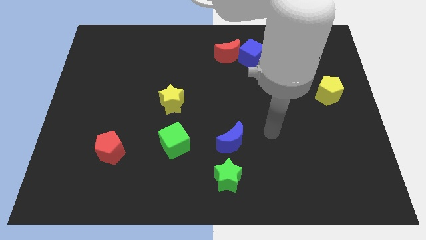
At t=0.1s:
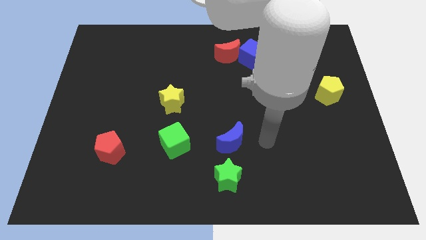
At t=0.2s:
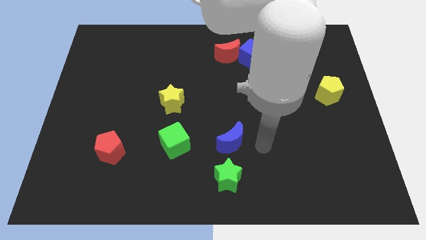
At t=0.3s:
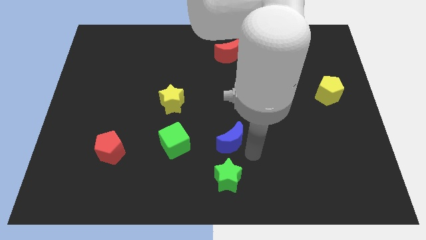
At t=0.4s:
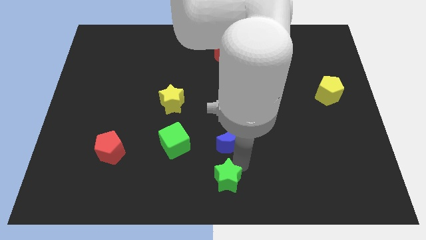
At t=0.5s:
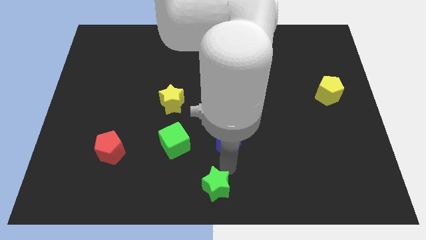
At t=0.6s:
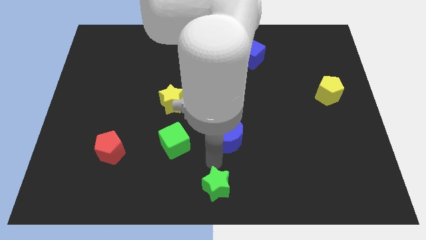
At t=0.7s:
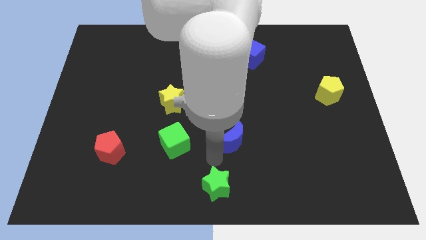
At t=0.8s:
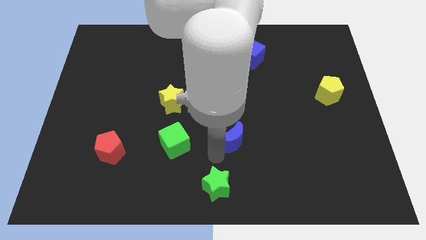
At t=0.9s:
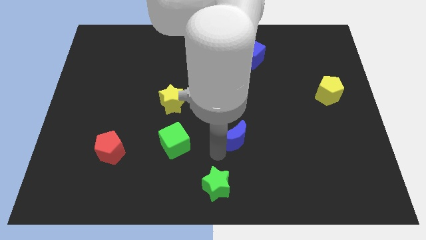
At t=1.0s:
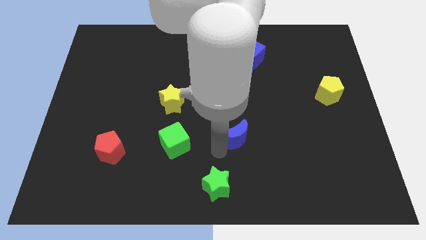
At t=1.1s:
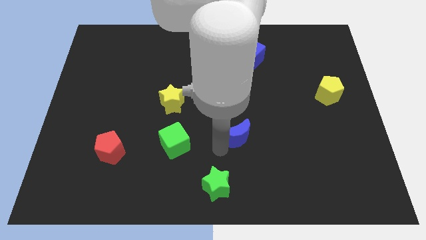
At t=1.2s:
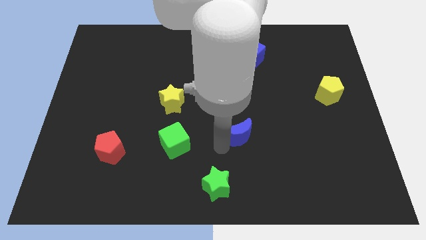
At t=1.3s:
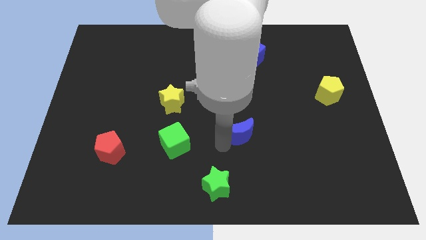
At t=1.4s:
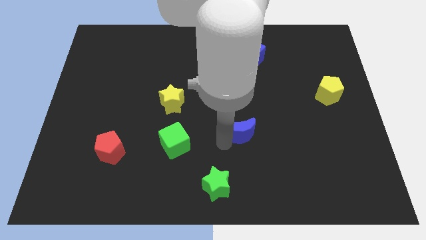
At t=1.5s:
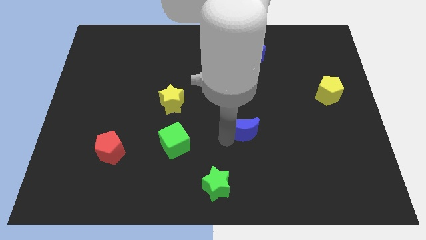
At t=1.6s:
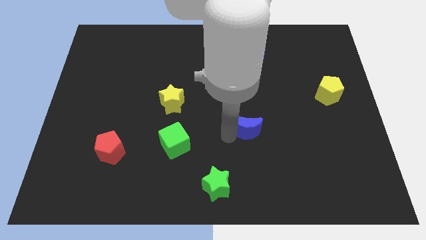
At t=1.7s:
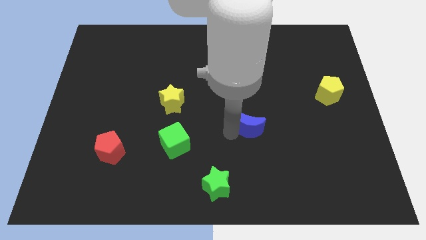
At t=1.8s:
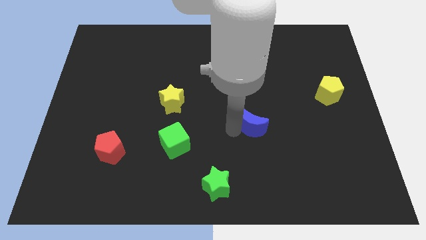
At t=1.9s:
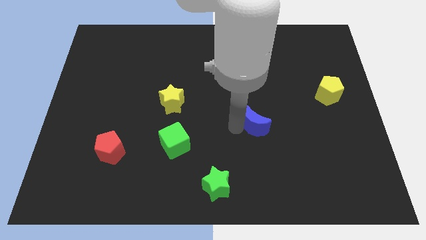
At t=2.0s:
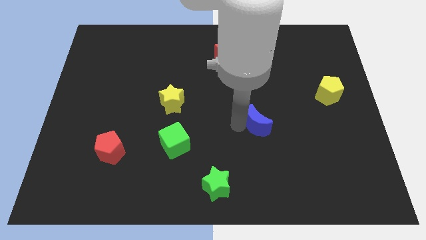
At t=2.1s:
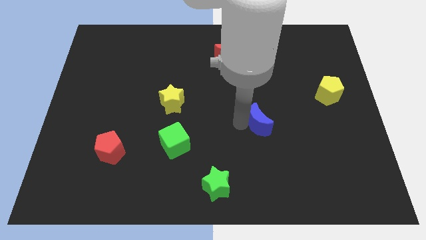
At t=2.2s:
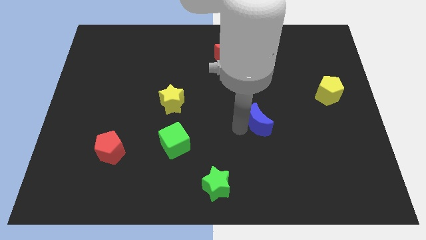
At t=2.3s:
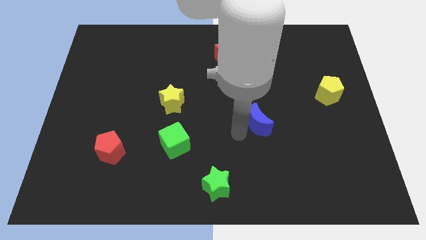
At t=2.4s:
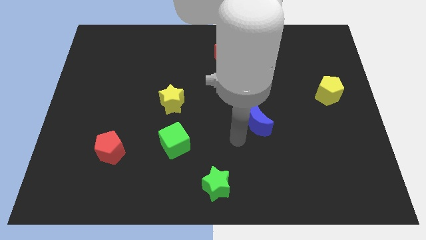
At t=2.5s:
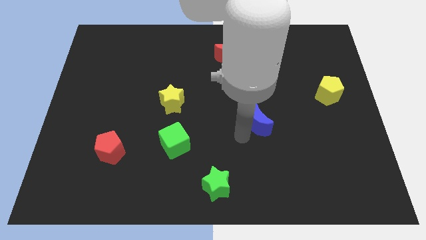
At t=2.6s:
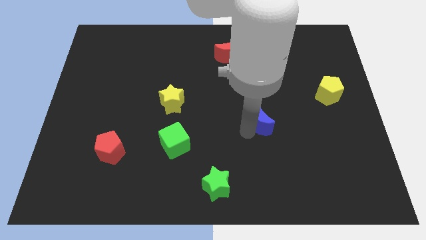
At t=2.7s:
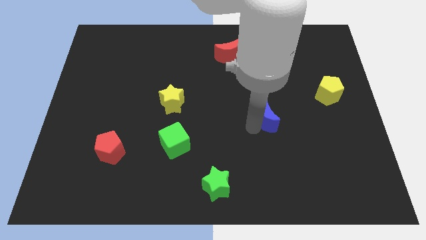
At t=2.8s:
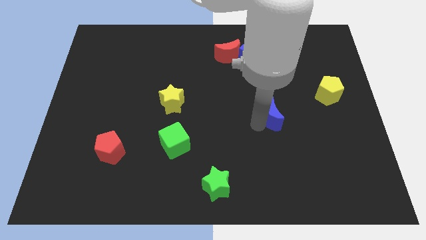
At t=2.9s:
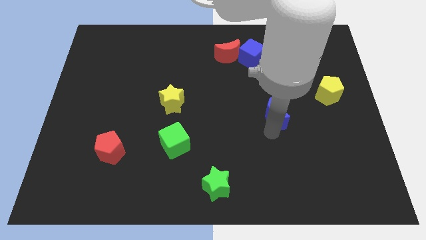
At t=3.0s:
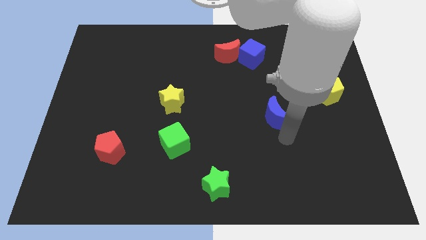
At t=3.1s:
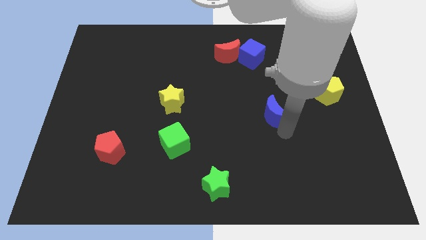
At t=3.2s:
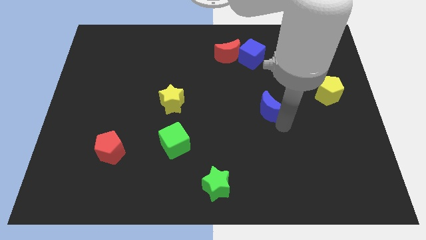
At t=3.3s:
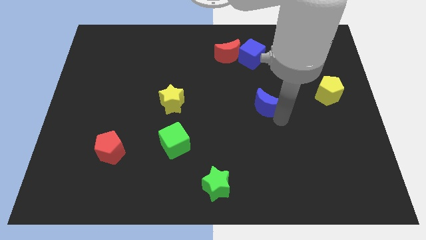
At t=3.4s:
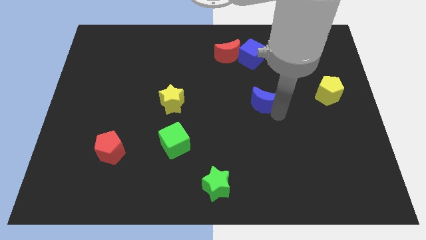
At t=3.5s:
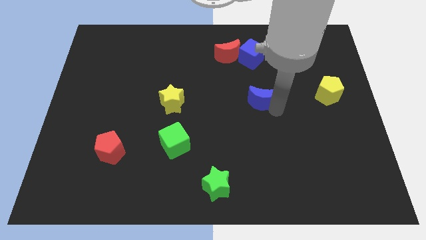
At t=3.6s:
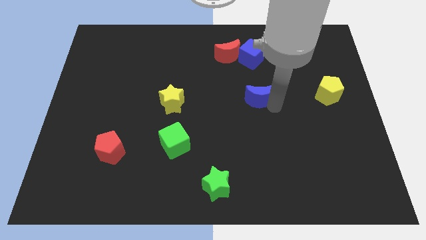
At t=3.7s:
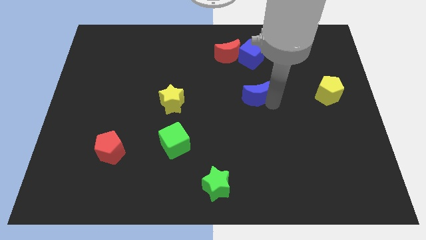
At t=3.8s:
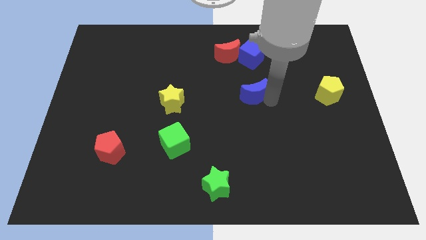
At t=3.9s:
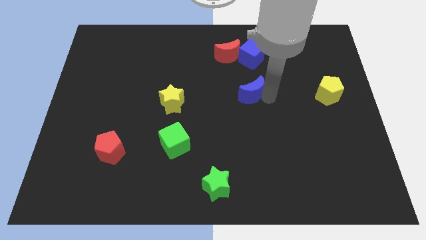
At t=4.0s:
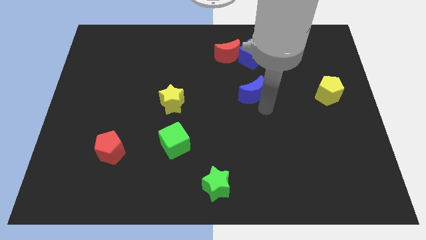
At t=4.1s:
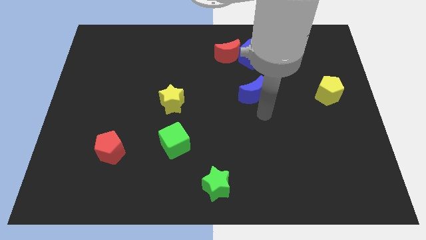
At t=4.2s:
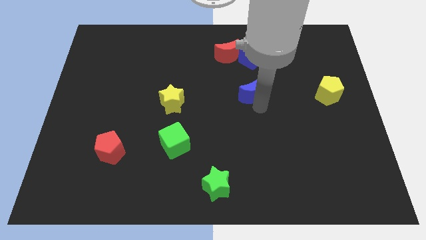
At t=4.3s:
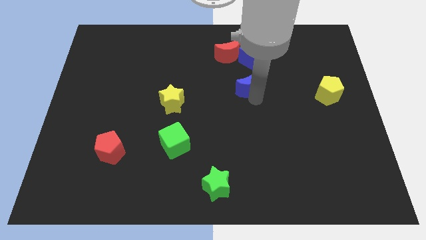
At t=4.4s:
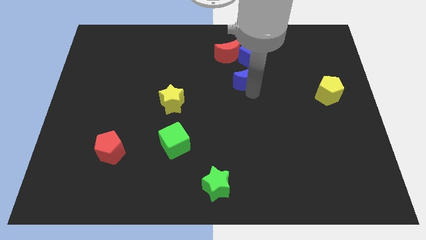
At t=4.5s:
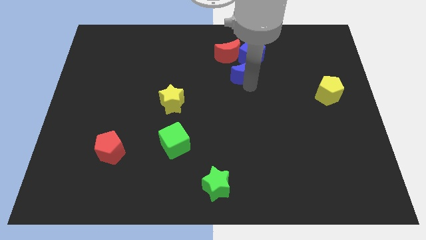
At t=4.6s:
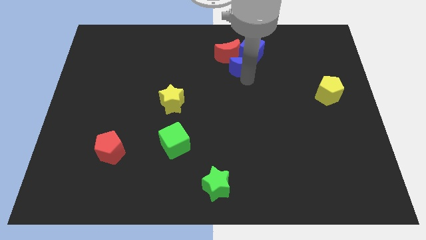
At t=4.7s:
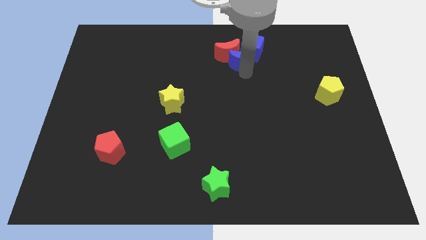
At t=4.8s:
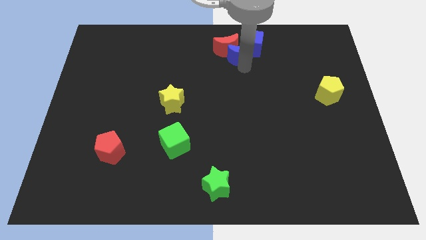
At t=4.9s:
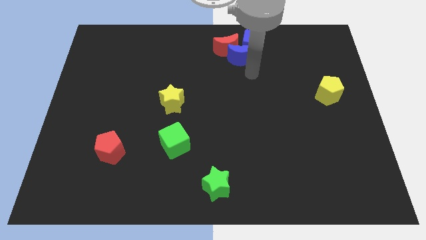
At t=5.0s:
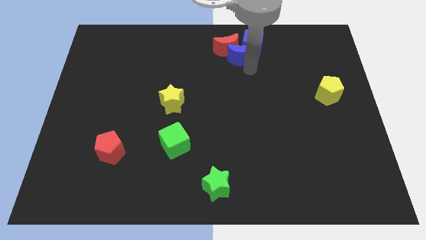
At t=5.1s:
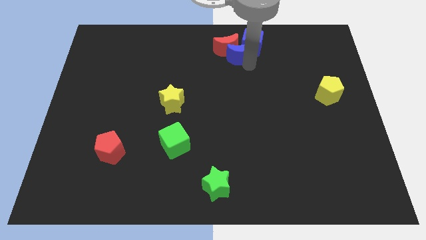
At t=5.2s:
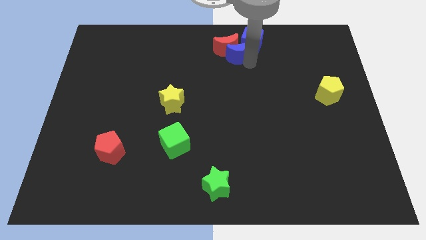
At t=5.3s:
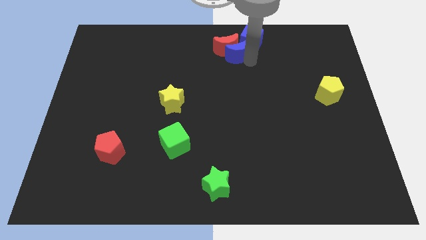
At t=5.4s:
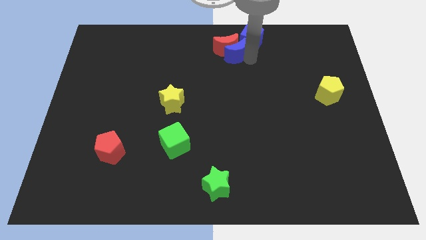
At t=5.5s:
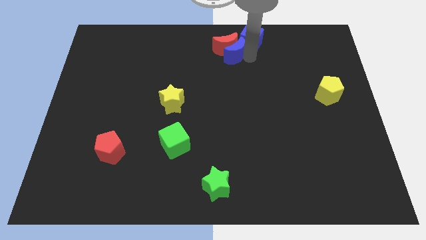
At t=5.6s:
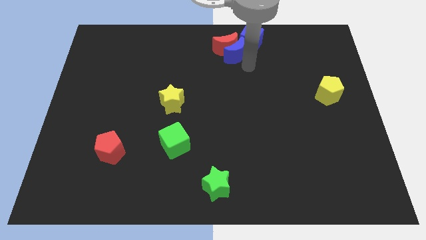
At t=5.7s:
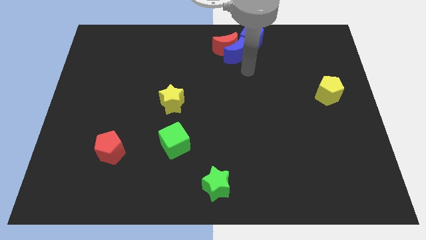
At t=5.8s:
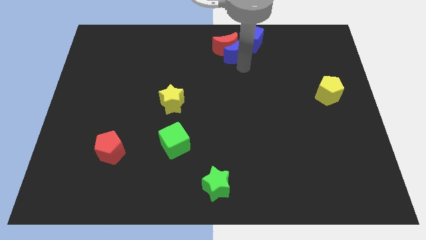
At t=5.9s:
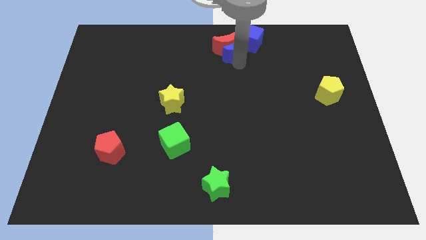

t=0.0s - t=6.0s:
push the blue moon to the top
